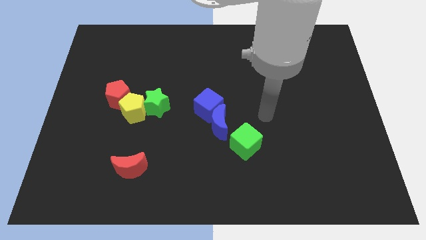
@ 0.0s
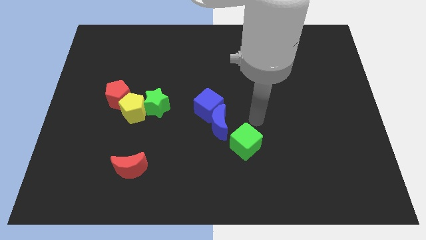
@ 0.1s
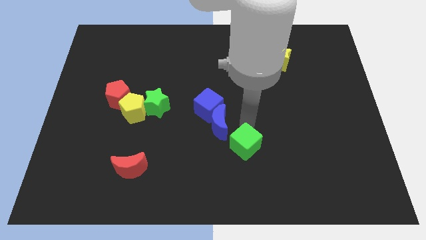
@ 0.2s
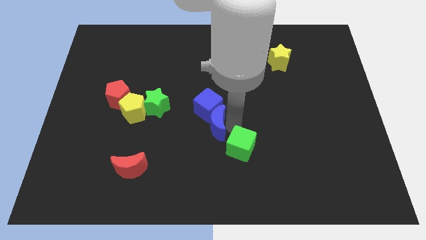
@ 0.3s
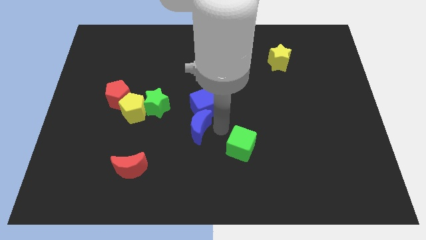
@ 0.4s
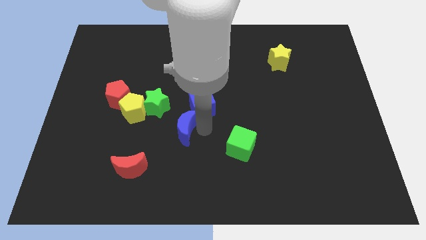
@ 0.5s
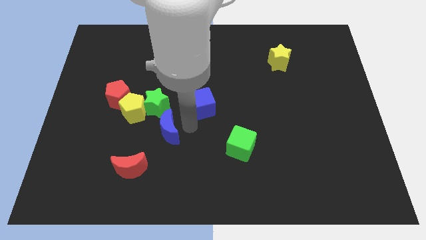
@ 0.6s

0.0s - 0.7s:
separate the blue cube from the blue moon

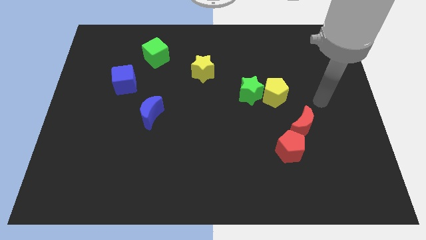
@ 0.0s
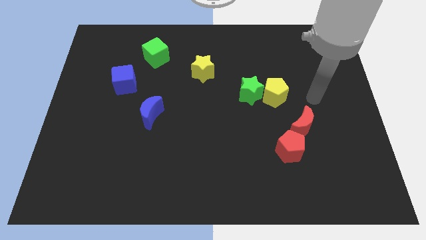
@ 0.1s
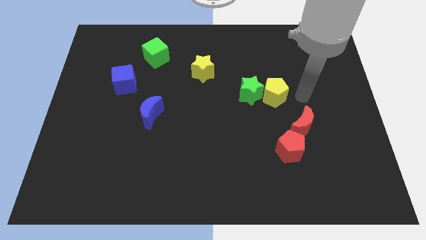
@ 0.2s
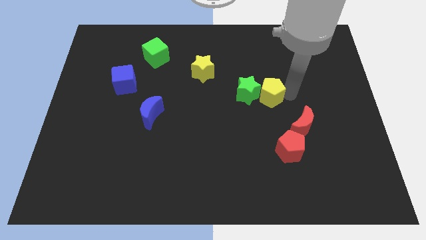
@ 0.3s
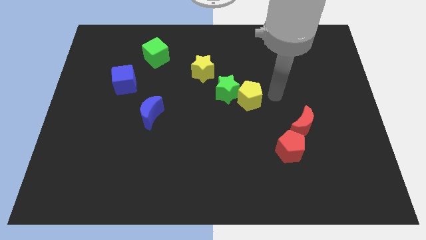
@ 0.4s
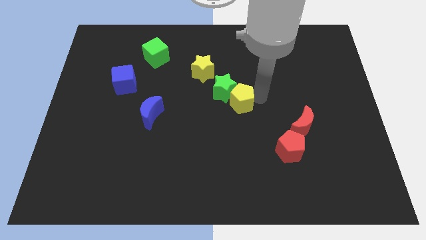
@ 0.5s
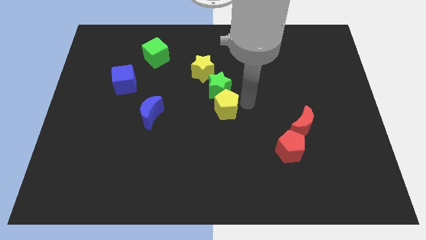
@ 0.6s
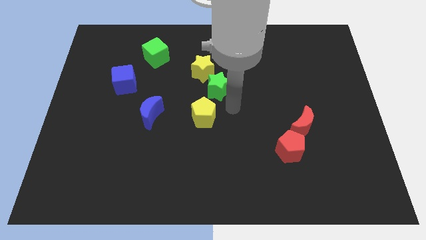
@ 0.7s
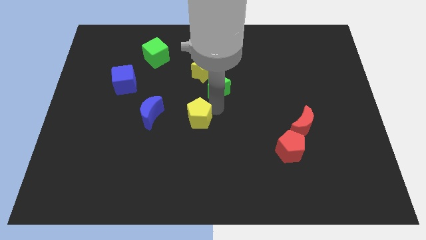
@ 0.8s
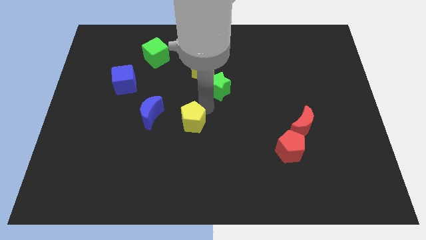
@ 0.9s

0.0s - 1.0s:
separate the green star from the yellow pentagon

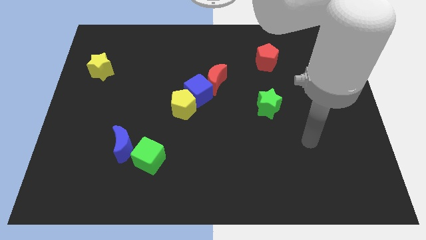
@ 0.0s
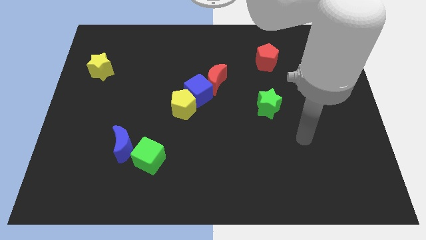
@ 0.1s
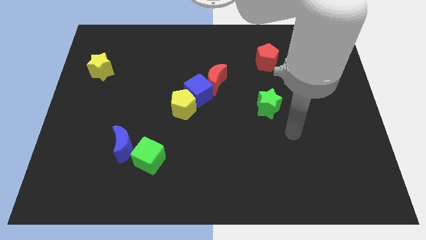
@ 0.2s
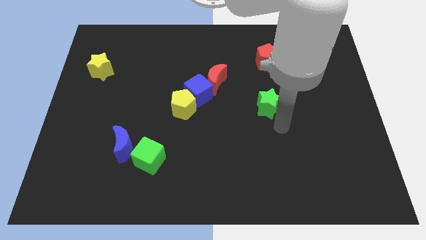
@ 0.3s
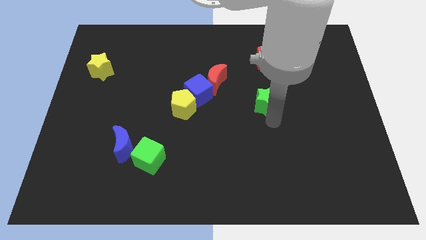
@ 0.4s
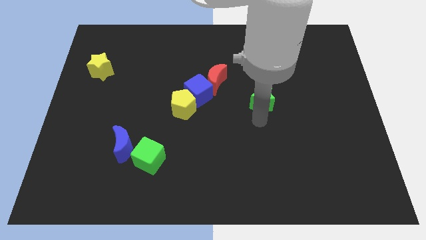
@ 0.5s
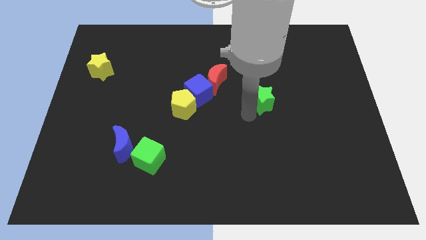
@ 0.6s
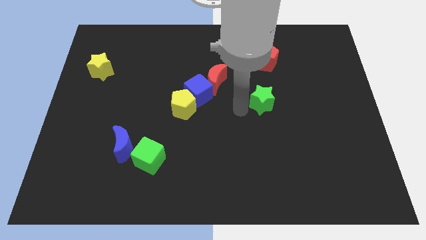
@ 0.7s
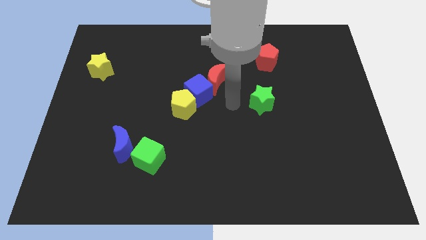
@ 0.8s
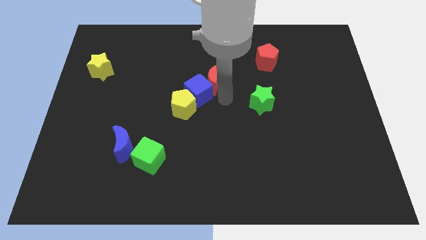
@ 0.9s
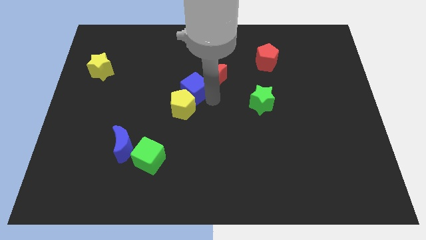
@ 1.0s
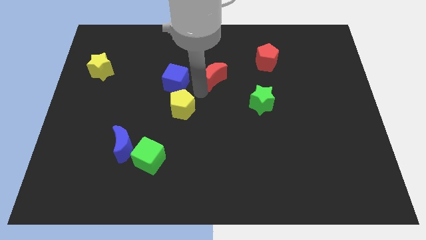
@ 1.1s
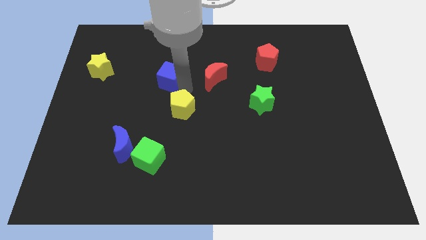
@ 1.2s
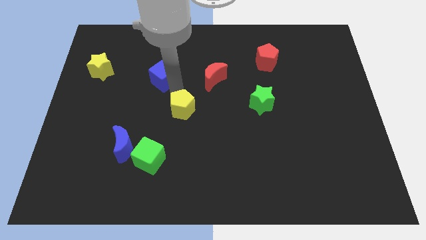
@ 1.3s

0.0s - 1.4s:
pull the yellow pentagon apart from the blue cube

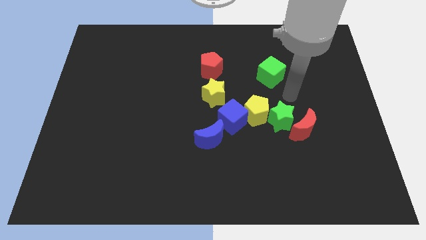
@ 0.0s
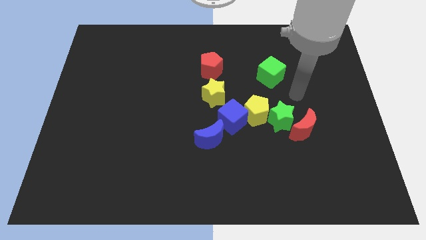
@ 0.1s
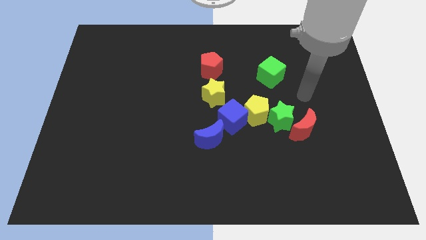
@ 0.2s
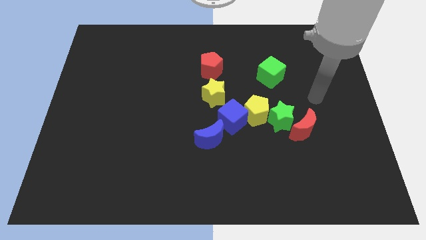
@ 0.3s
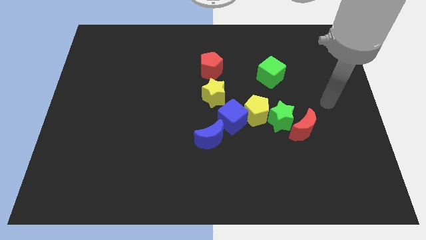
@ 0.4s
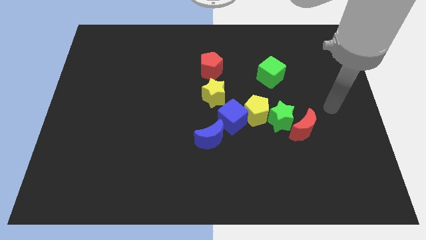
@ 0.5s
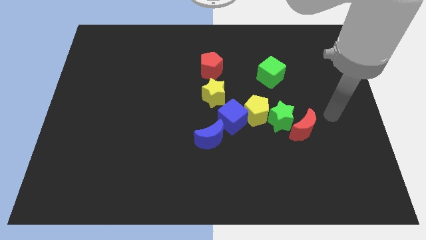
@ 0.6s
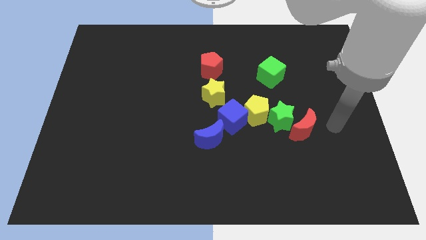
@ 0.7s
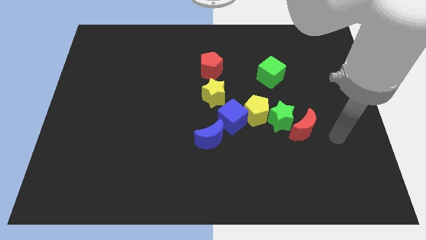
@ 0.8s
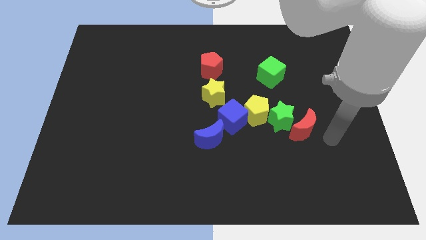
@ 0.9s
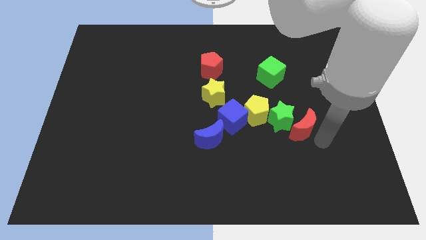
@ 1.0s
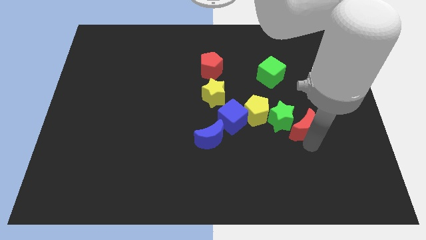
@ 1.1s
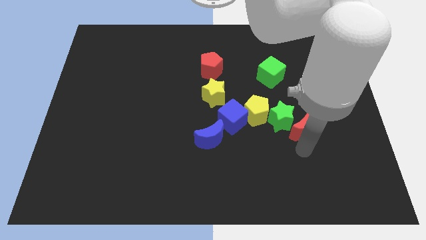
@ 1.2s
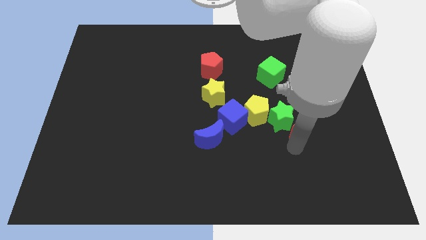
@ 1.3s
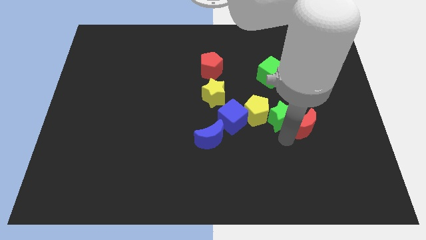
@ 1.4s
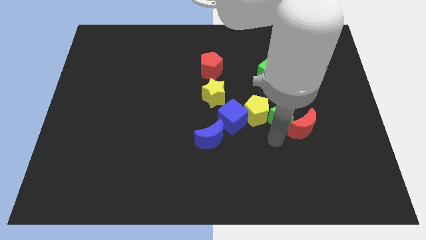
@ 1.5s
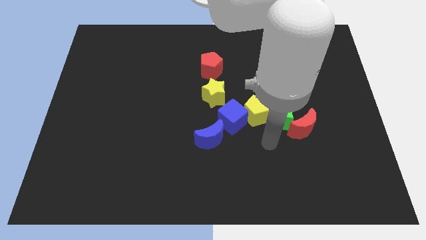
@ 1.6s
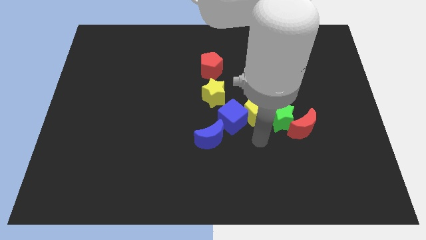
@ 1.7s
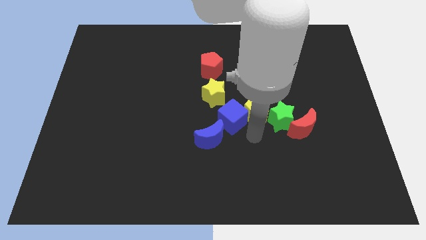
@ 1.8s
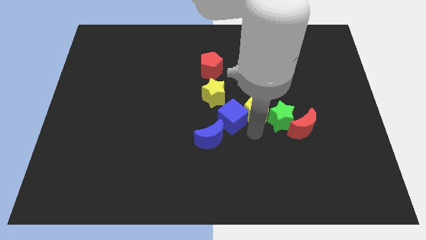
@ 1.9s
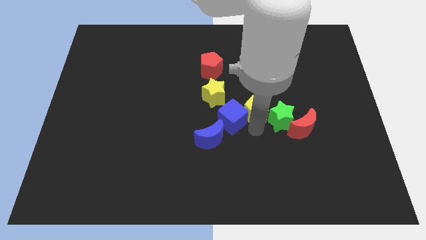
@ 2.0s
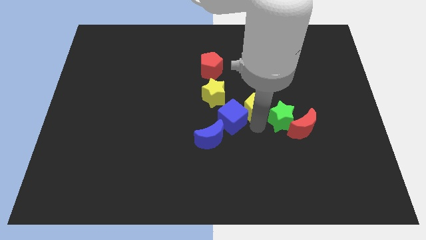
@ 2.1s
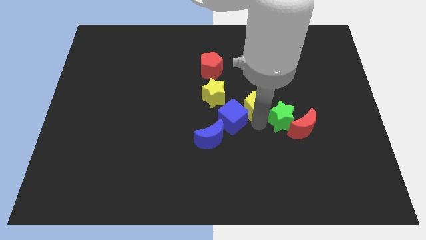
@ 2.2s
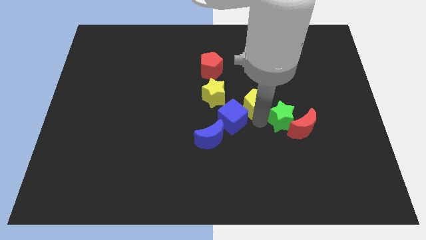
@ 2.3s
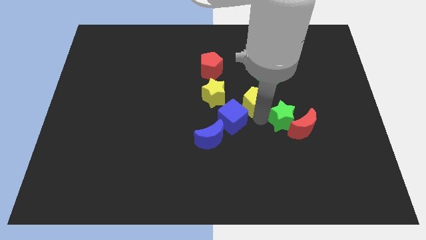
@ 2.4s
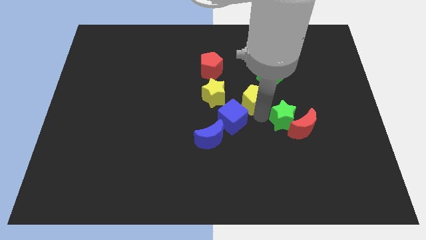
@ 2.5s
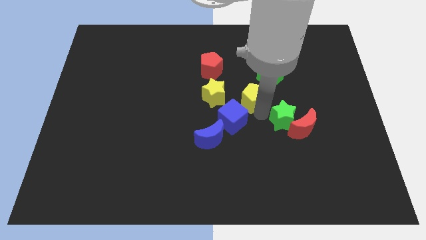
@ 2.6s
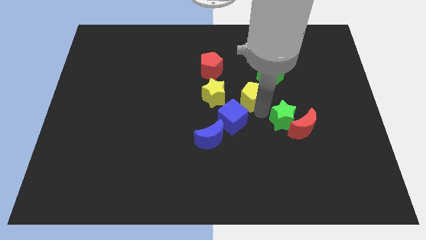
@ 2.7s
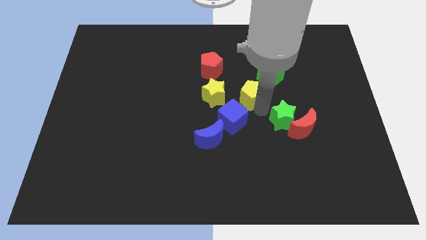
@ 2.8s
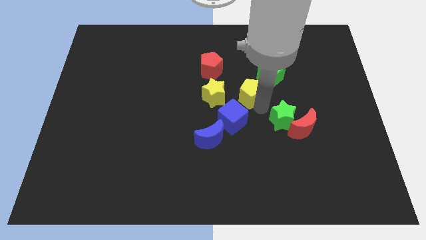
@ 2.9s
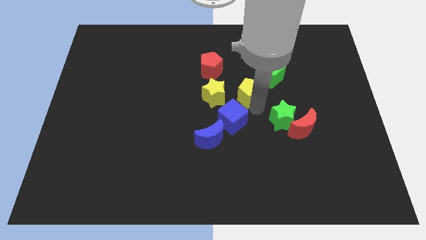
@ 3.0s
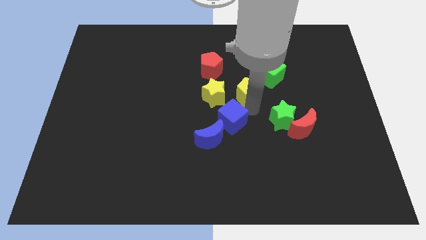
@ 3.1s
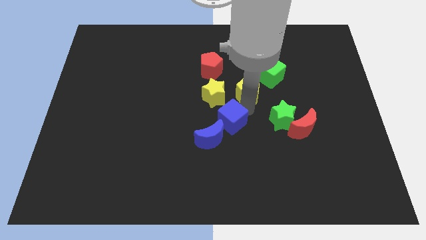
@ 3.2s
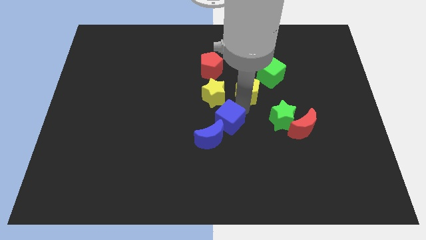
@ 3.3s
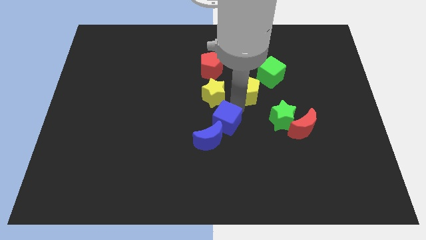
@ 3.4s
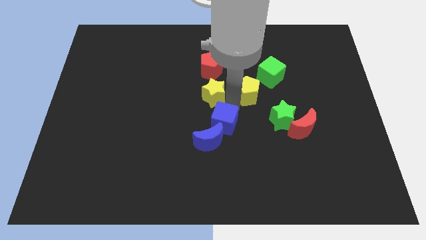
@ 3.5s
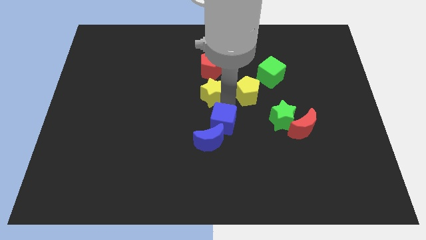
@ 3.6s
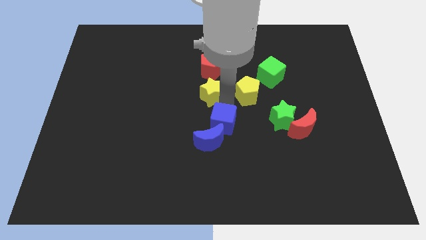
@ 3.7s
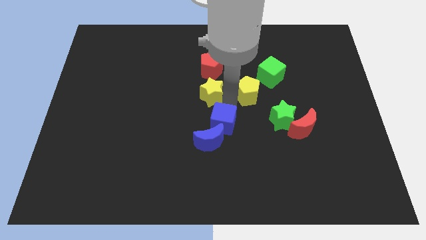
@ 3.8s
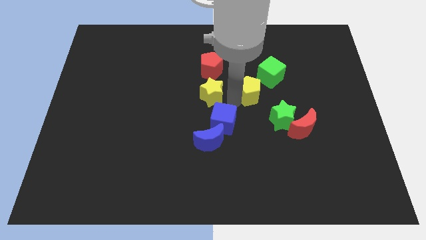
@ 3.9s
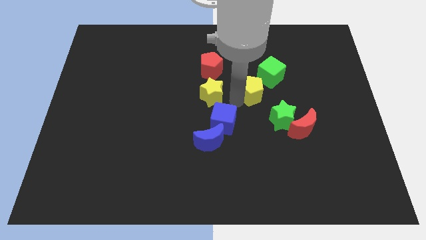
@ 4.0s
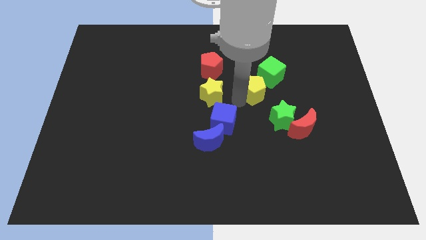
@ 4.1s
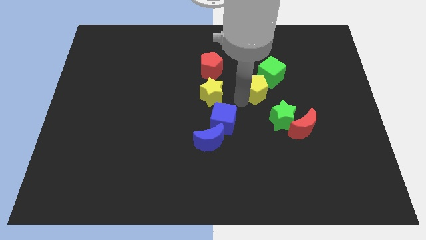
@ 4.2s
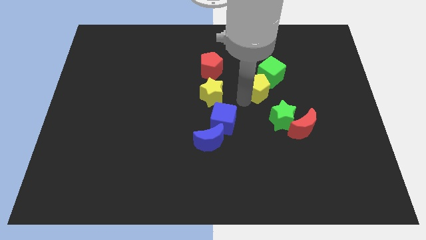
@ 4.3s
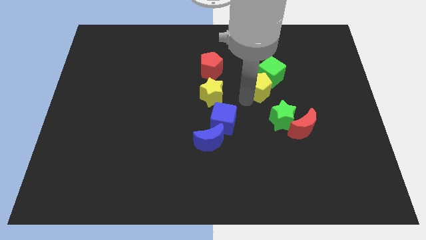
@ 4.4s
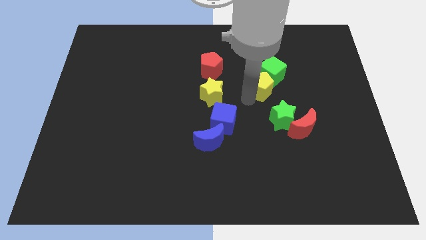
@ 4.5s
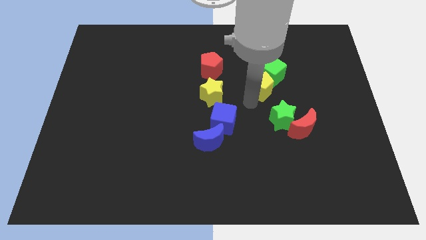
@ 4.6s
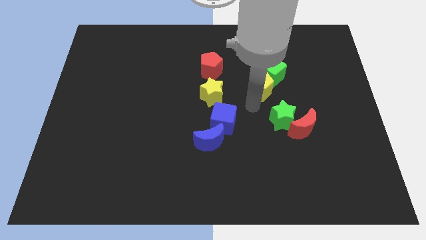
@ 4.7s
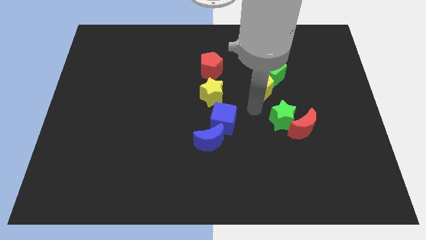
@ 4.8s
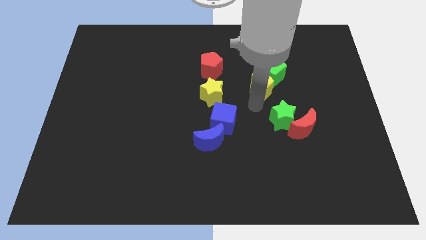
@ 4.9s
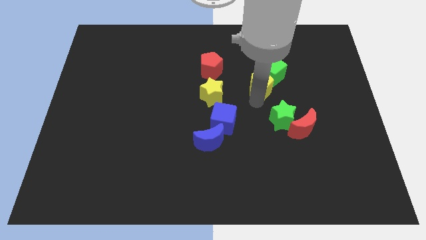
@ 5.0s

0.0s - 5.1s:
pull the yellow pentagon apart from the green star and blue cube

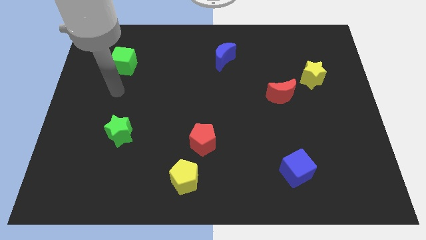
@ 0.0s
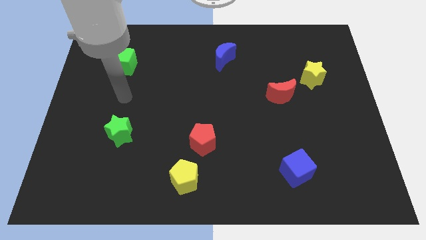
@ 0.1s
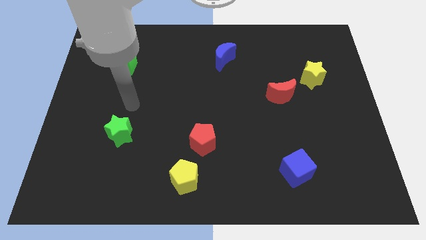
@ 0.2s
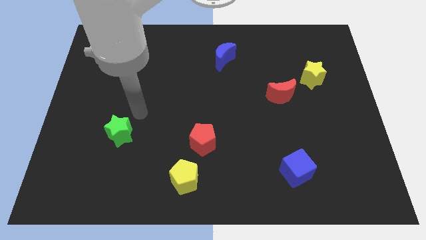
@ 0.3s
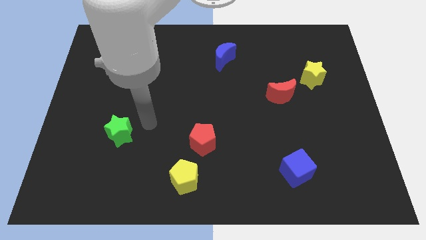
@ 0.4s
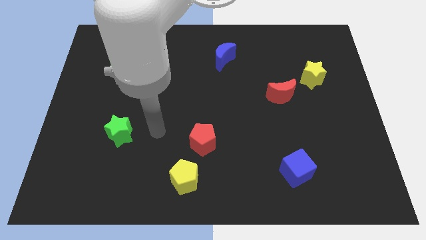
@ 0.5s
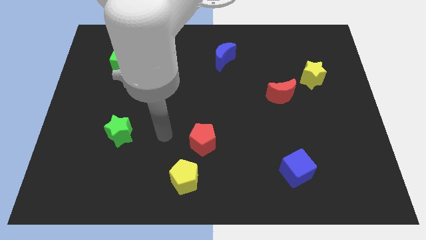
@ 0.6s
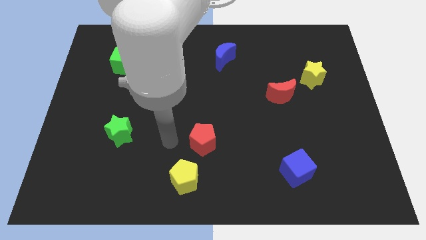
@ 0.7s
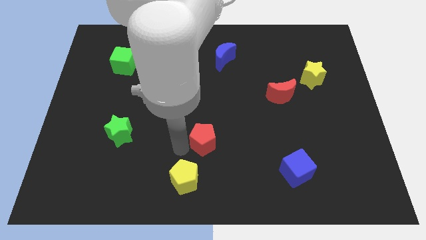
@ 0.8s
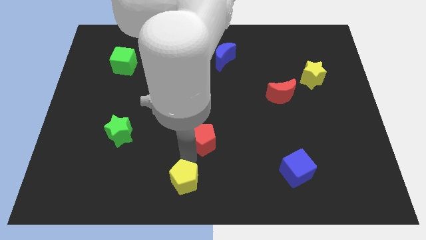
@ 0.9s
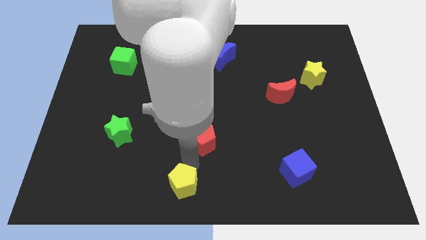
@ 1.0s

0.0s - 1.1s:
pull the red pentagon apart from the yellow pentagon
